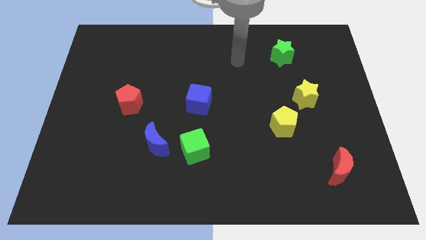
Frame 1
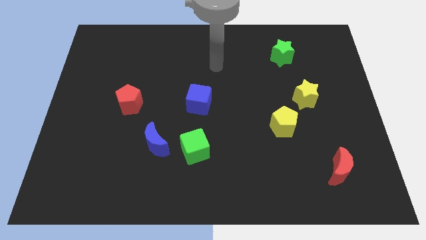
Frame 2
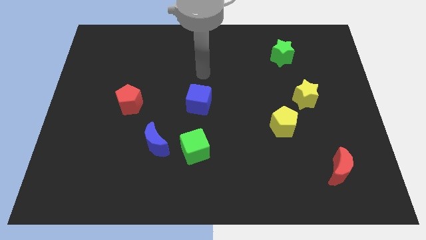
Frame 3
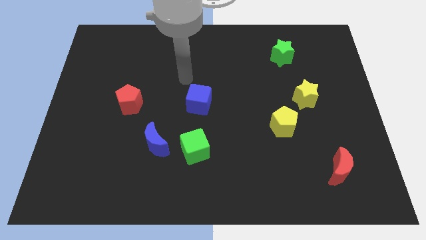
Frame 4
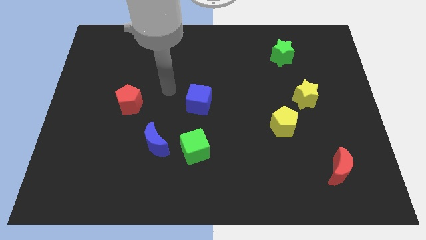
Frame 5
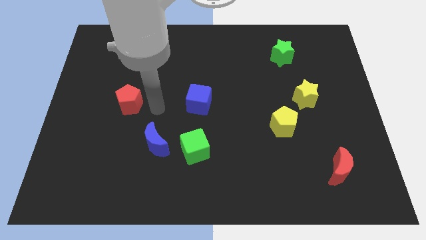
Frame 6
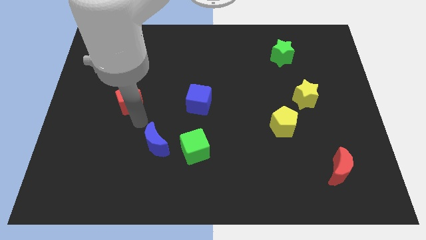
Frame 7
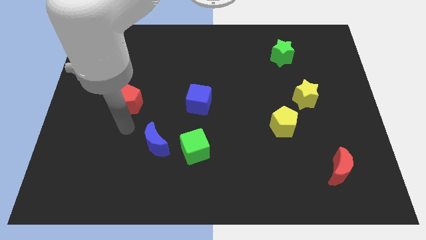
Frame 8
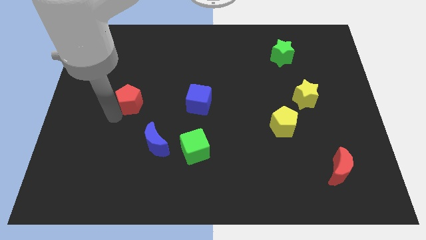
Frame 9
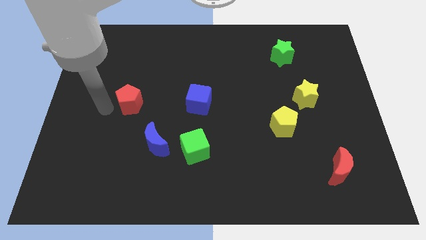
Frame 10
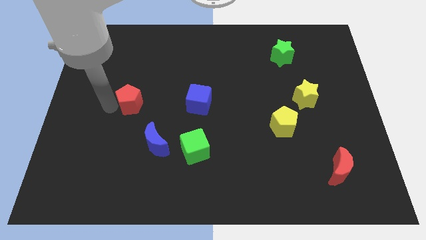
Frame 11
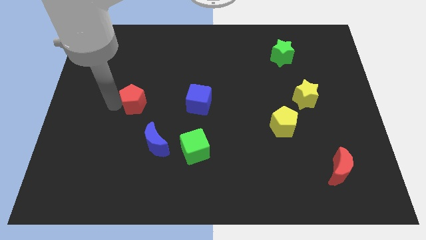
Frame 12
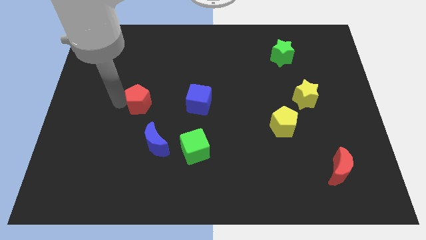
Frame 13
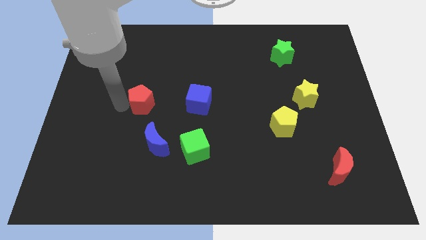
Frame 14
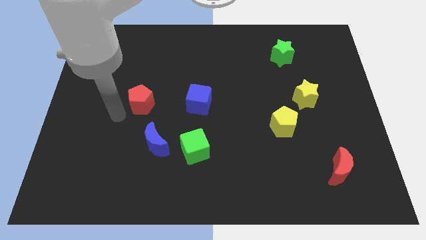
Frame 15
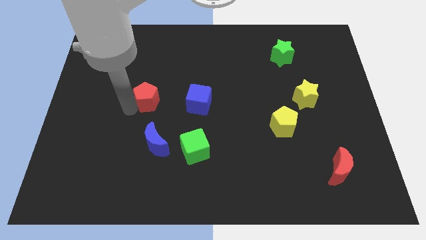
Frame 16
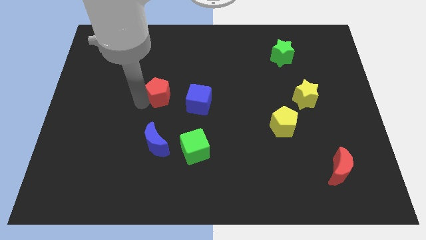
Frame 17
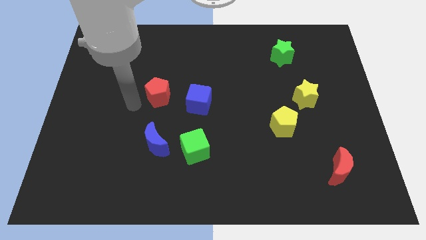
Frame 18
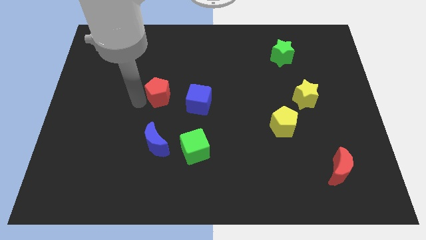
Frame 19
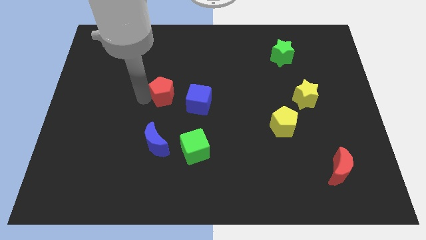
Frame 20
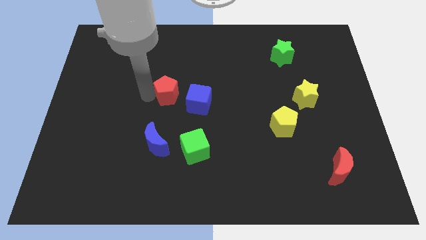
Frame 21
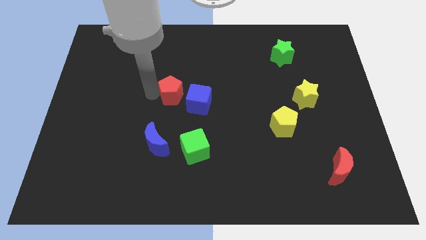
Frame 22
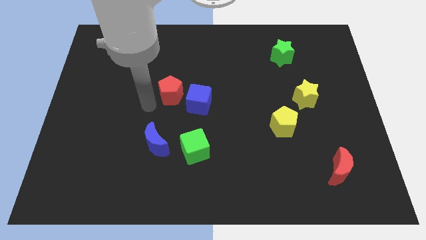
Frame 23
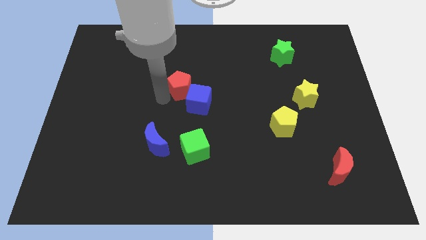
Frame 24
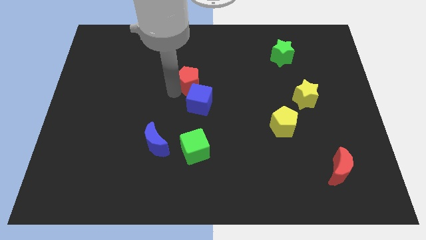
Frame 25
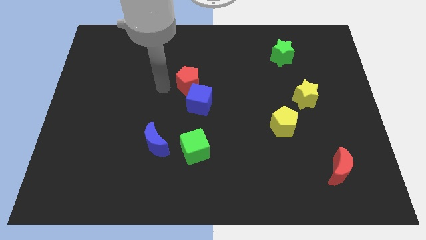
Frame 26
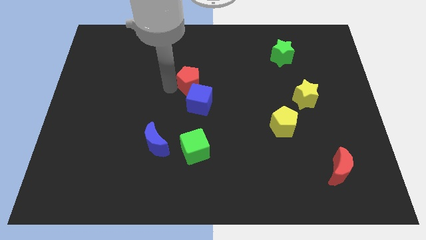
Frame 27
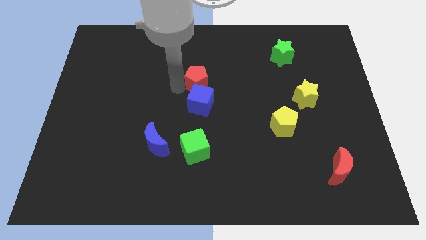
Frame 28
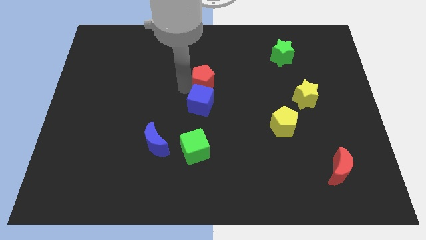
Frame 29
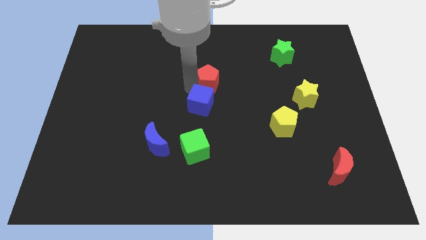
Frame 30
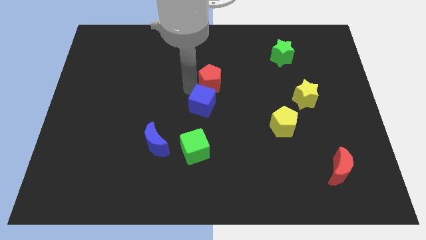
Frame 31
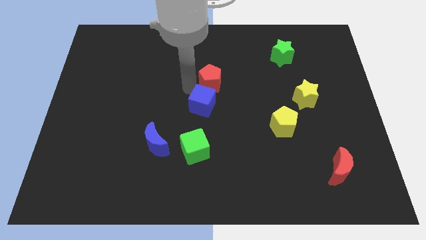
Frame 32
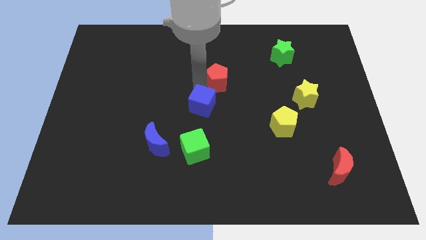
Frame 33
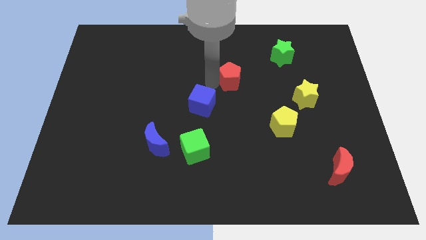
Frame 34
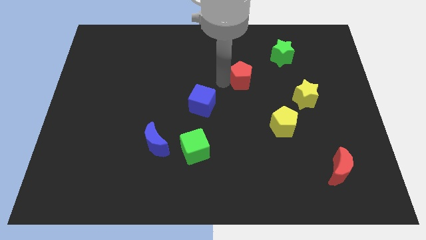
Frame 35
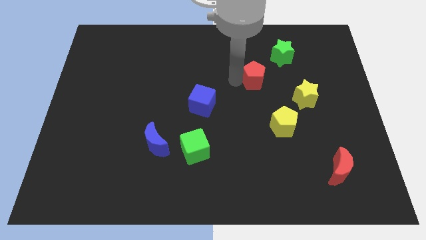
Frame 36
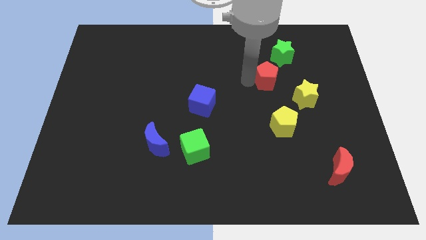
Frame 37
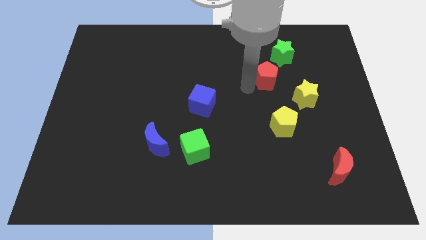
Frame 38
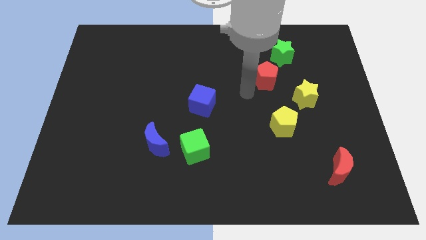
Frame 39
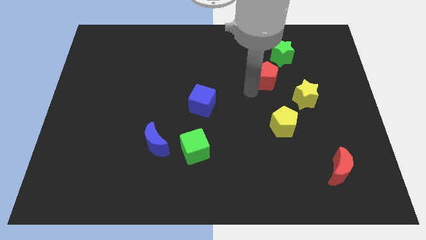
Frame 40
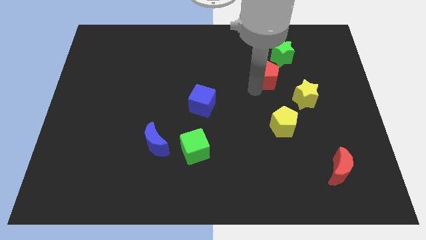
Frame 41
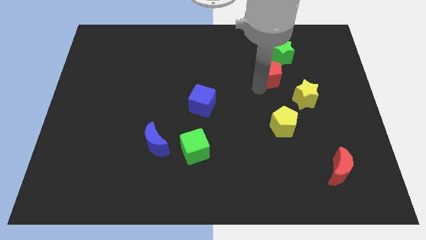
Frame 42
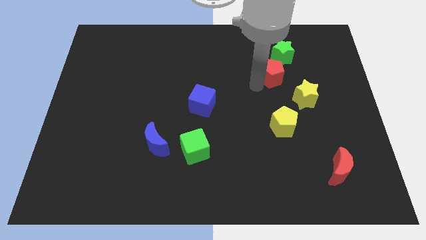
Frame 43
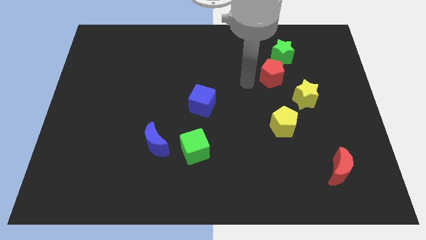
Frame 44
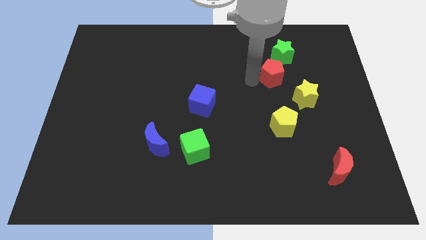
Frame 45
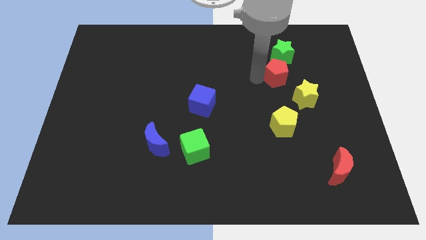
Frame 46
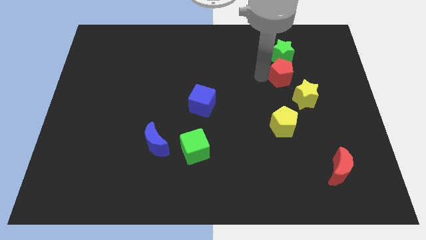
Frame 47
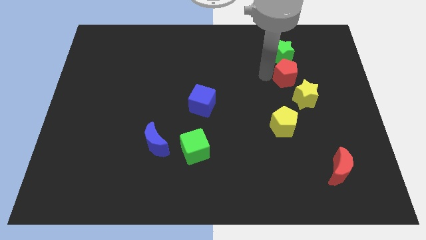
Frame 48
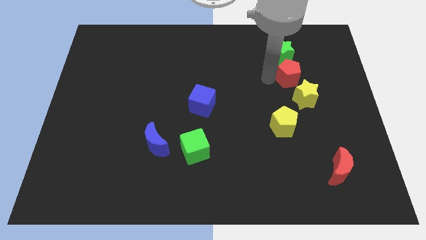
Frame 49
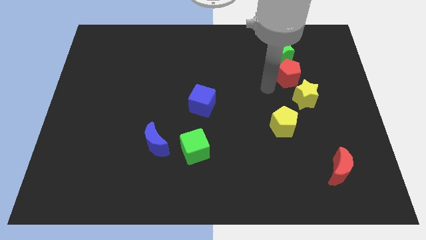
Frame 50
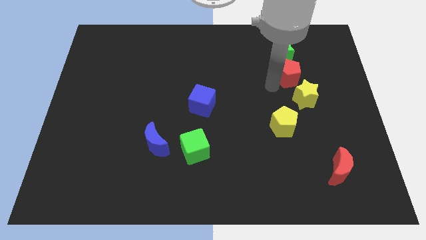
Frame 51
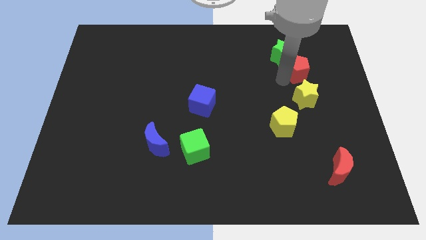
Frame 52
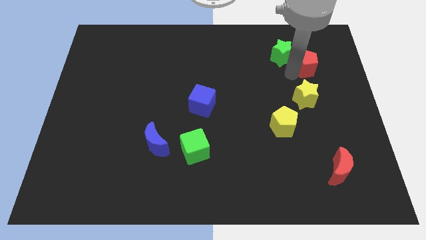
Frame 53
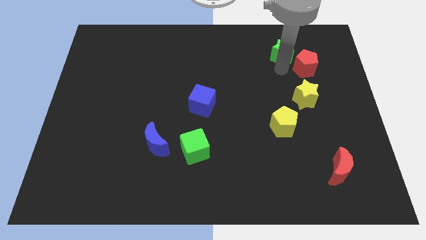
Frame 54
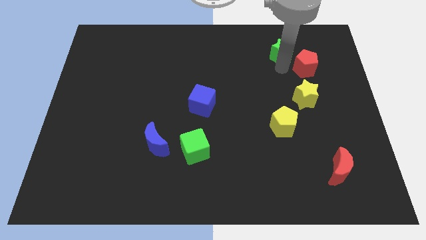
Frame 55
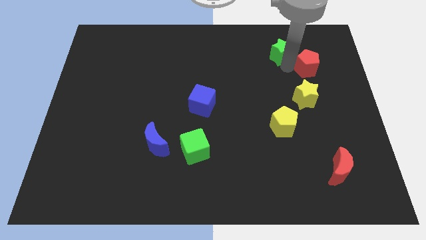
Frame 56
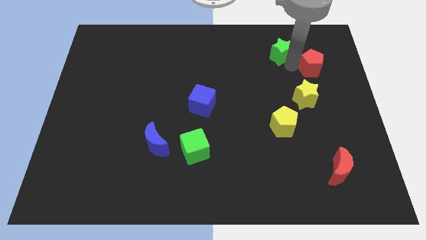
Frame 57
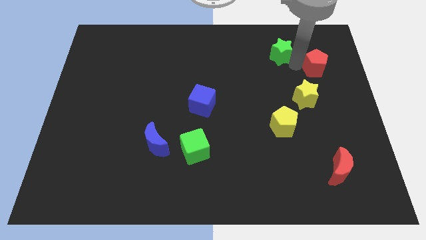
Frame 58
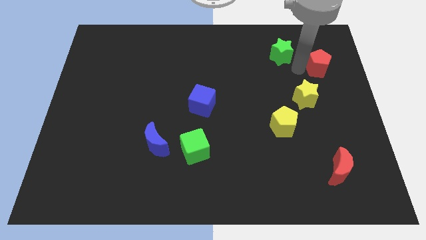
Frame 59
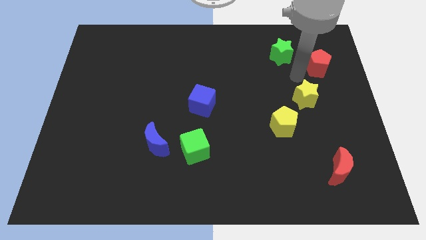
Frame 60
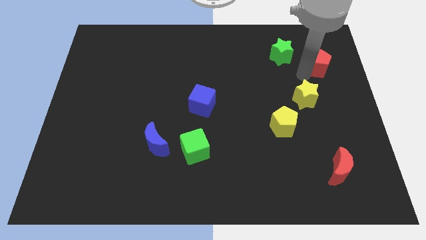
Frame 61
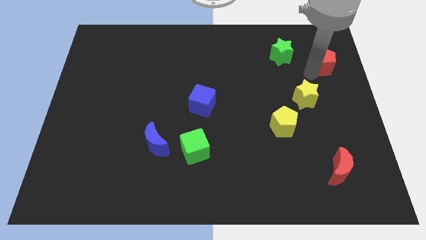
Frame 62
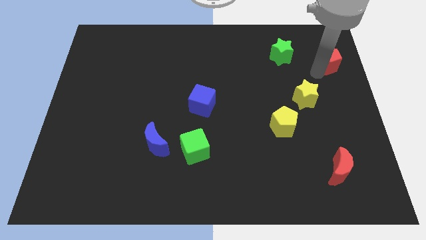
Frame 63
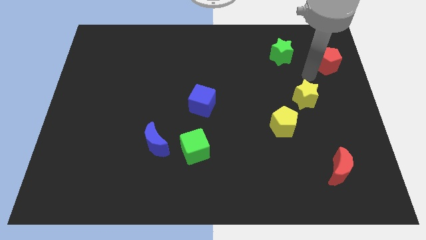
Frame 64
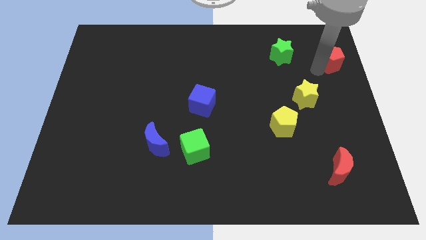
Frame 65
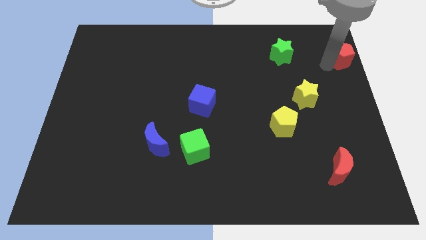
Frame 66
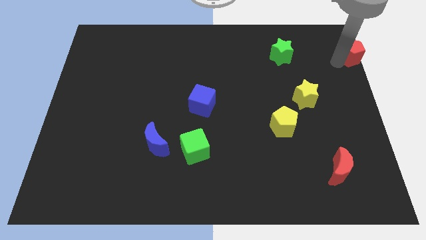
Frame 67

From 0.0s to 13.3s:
push the red pentagon to the upper right corner
